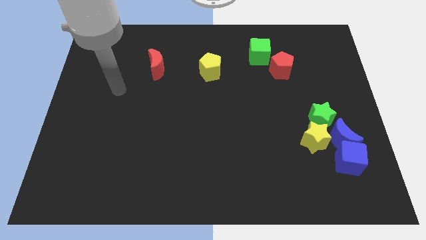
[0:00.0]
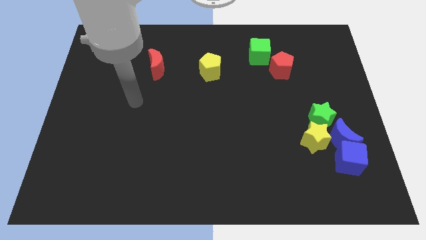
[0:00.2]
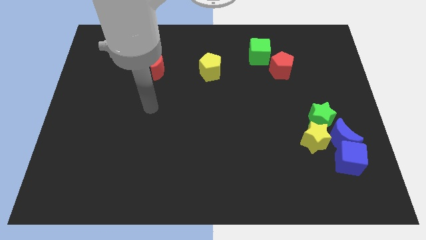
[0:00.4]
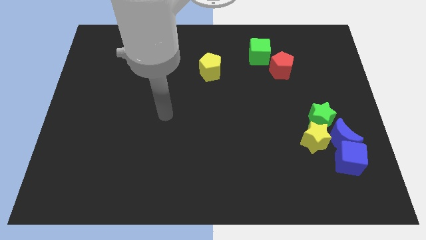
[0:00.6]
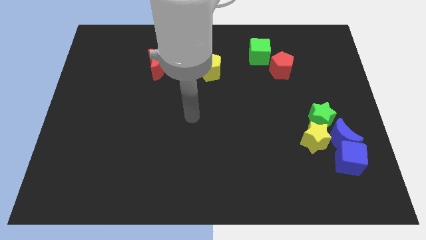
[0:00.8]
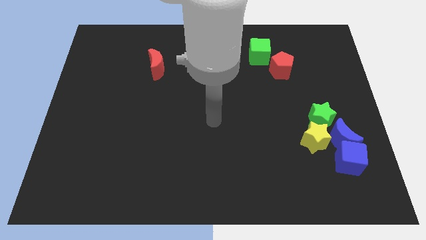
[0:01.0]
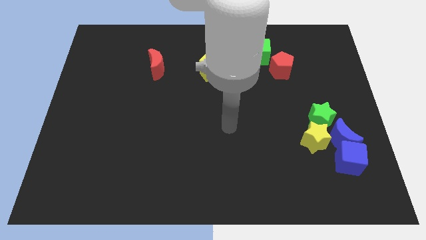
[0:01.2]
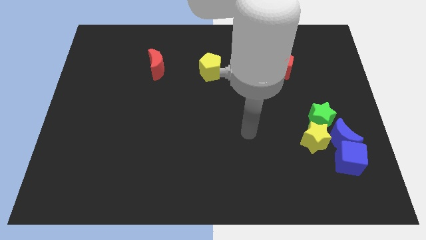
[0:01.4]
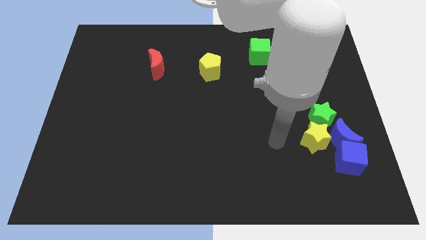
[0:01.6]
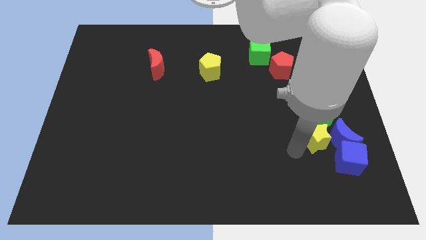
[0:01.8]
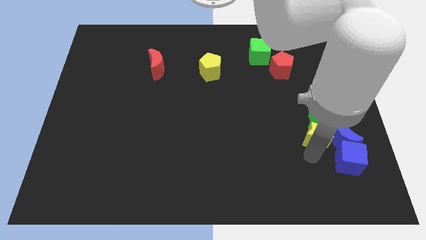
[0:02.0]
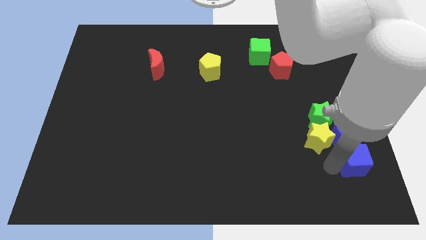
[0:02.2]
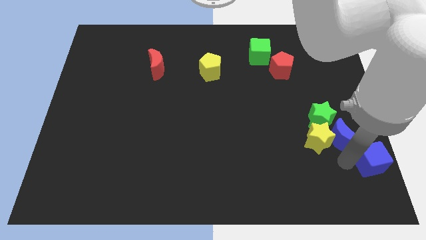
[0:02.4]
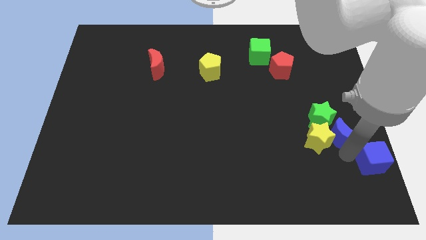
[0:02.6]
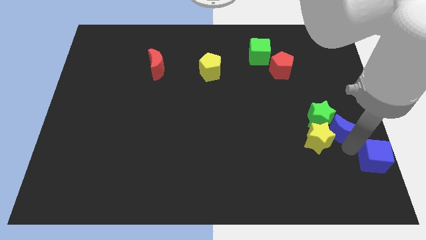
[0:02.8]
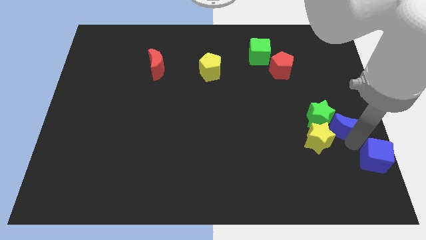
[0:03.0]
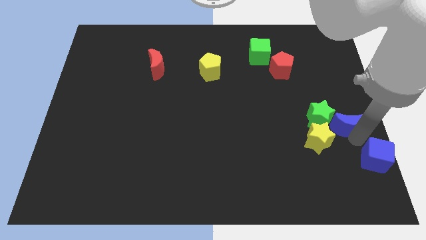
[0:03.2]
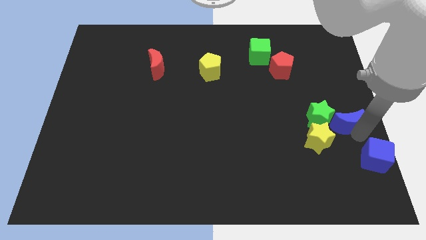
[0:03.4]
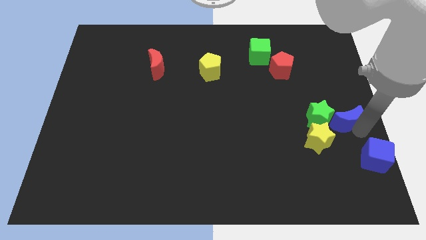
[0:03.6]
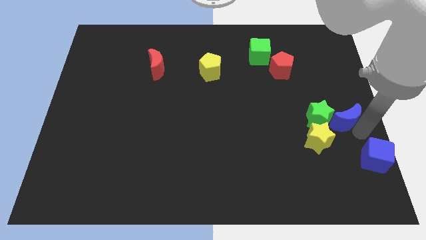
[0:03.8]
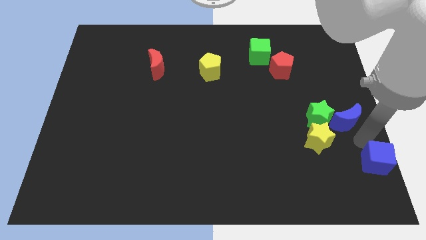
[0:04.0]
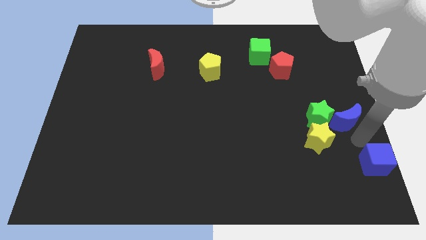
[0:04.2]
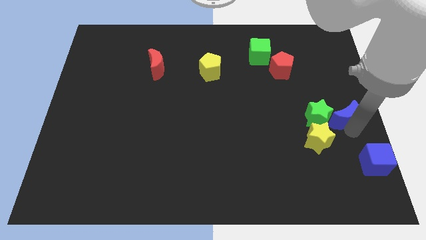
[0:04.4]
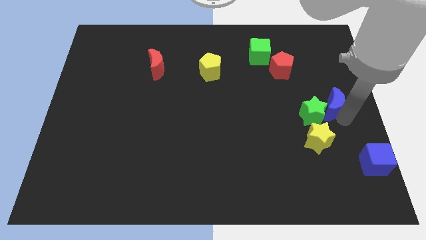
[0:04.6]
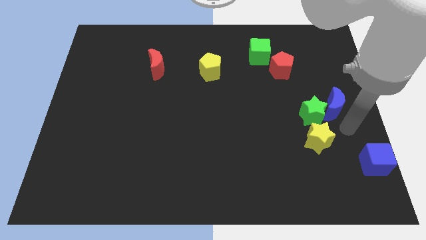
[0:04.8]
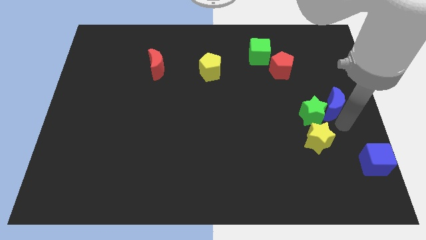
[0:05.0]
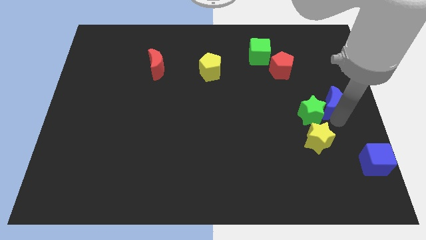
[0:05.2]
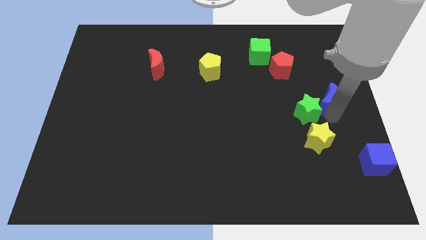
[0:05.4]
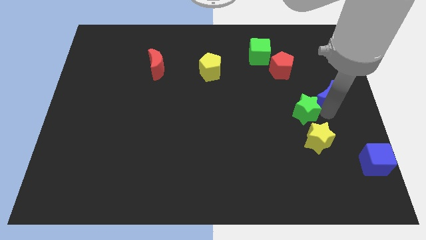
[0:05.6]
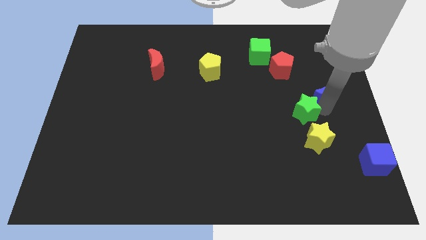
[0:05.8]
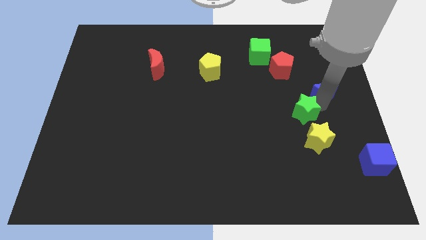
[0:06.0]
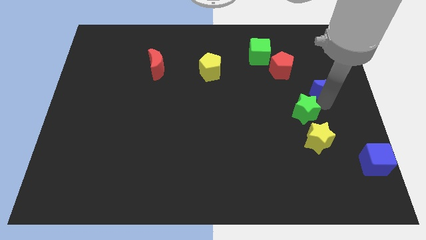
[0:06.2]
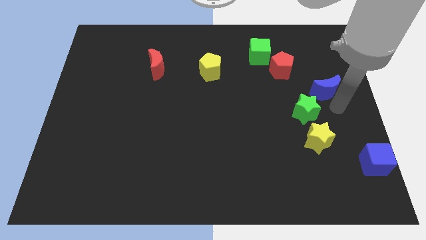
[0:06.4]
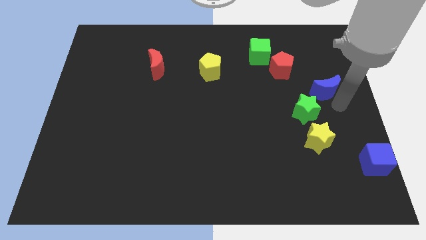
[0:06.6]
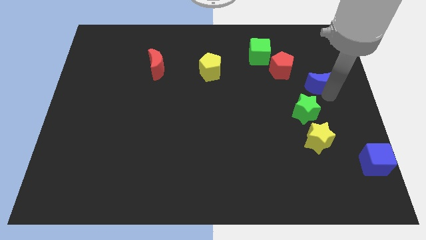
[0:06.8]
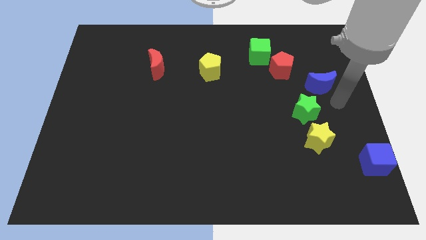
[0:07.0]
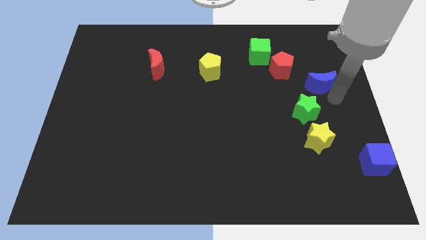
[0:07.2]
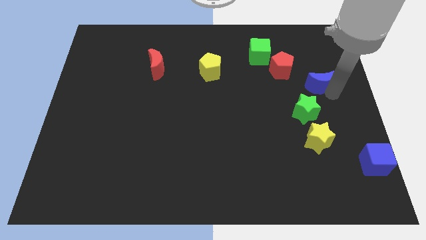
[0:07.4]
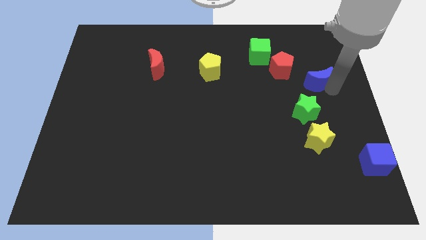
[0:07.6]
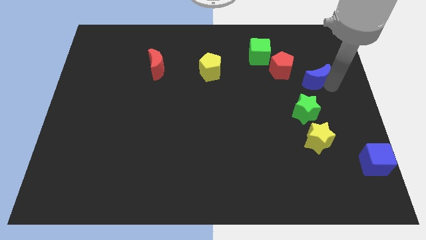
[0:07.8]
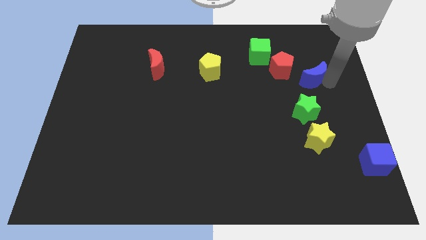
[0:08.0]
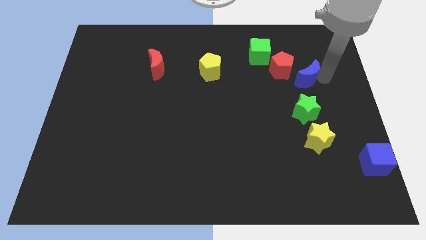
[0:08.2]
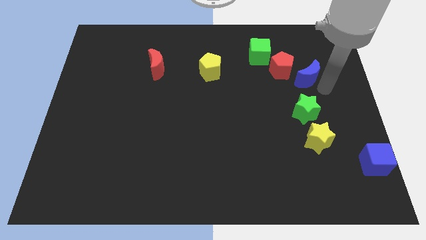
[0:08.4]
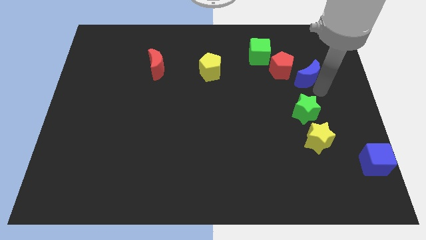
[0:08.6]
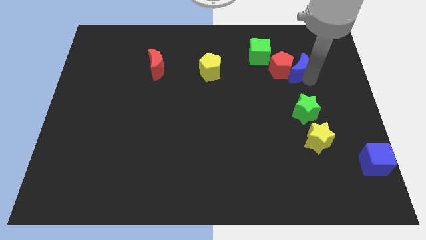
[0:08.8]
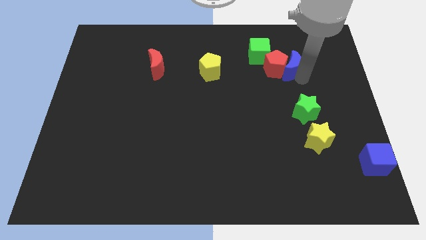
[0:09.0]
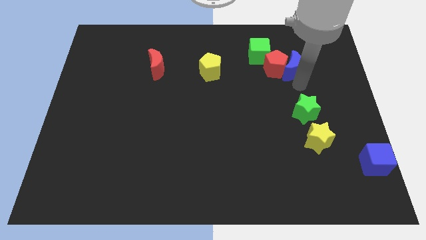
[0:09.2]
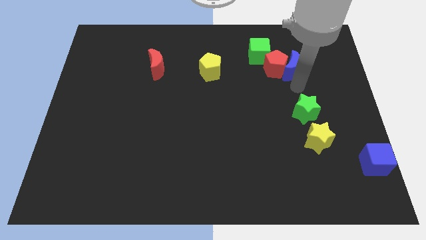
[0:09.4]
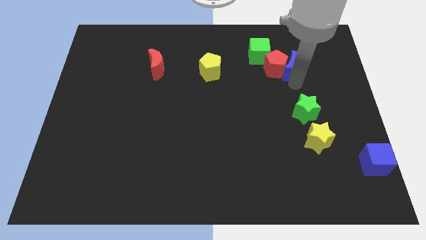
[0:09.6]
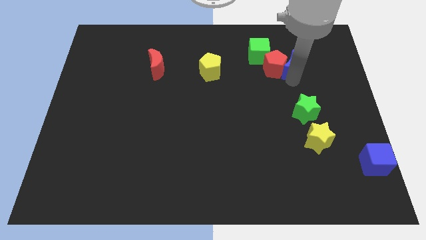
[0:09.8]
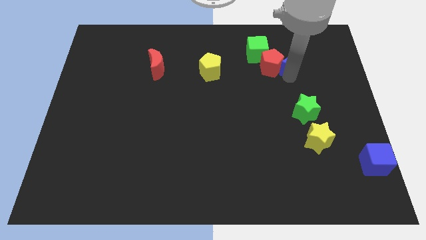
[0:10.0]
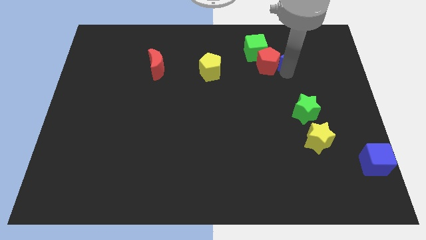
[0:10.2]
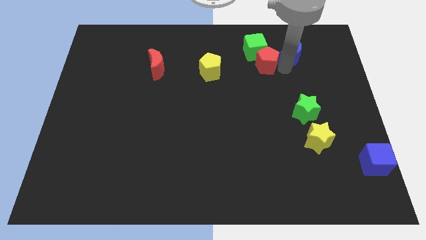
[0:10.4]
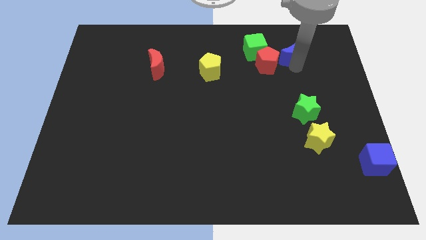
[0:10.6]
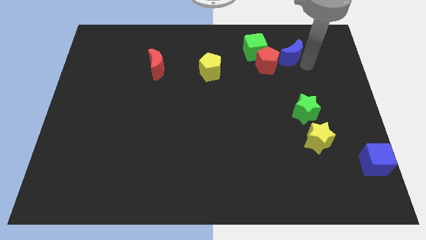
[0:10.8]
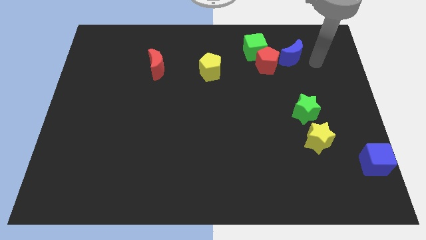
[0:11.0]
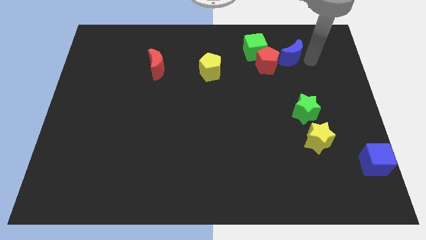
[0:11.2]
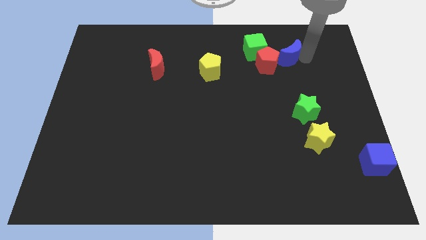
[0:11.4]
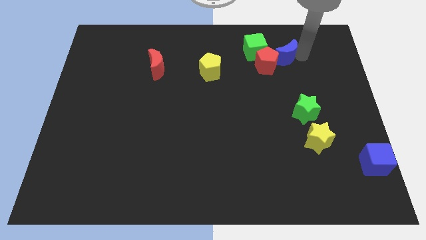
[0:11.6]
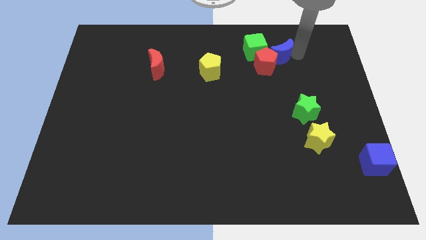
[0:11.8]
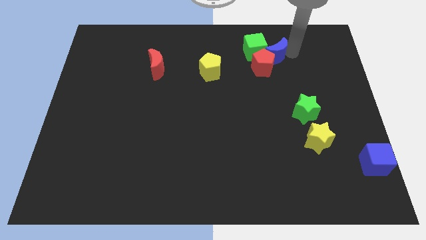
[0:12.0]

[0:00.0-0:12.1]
put the blue moon next to the green cube

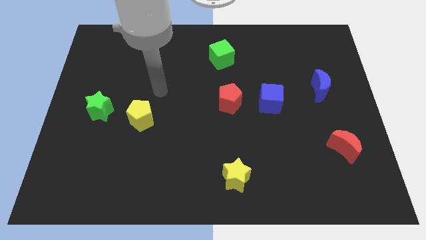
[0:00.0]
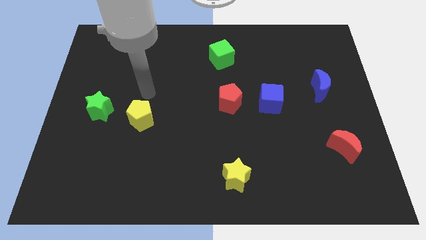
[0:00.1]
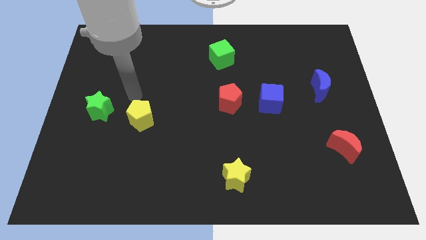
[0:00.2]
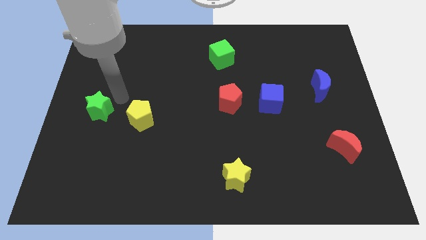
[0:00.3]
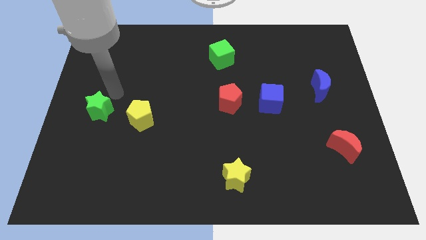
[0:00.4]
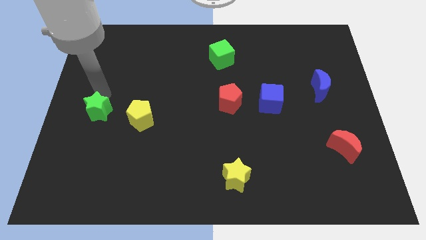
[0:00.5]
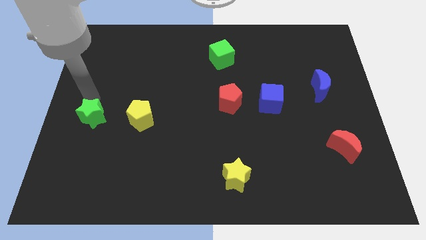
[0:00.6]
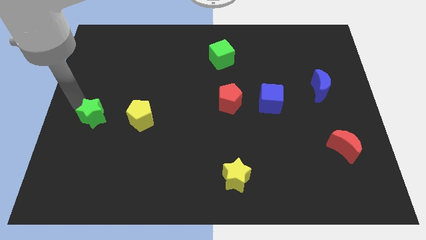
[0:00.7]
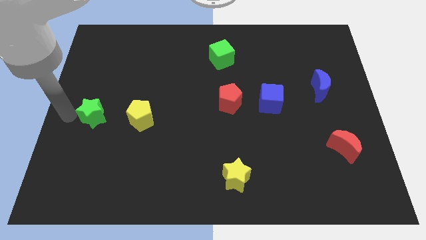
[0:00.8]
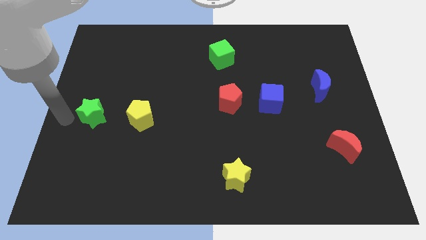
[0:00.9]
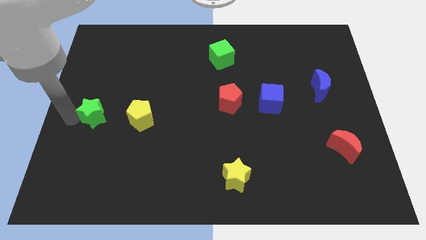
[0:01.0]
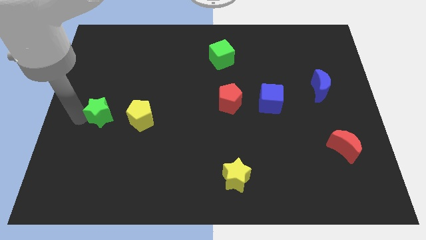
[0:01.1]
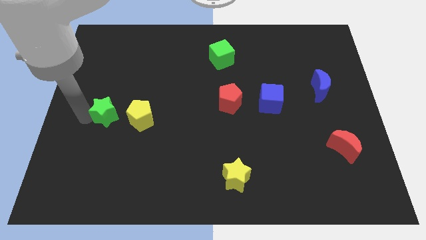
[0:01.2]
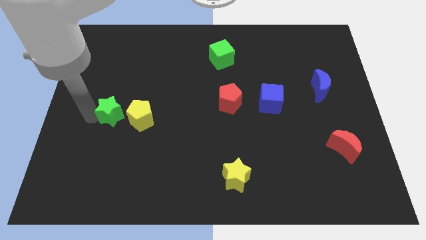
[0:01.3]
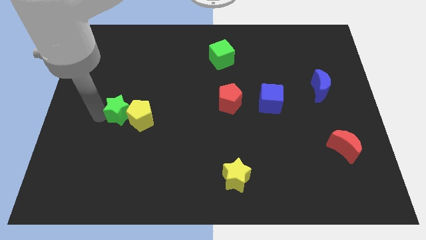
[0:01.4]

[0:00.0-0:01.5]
push the green star towards the yellow pentagon
